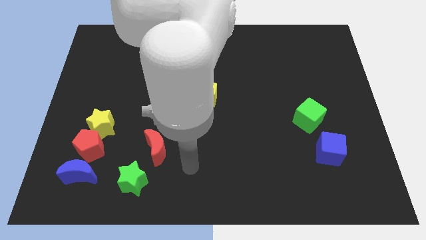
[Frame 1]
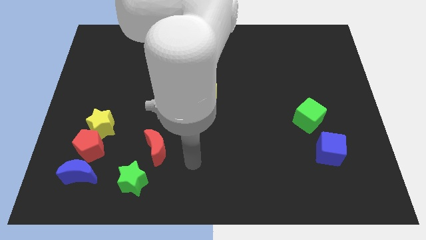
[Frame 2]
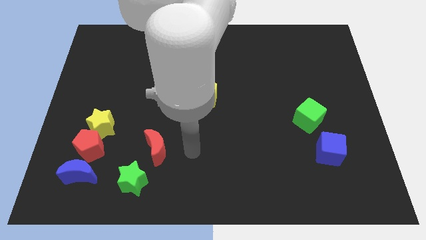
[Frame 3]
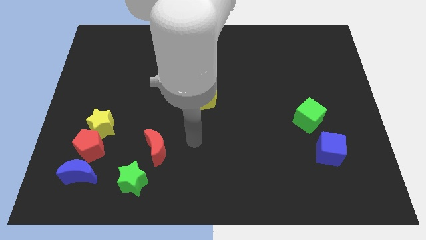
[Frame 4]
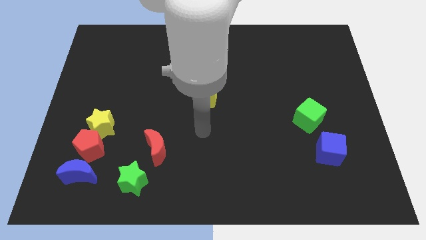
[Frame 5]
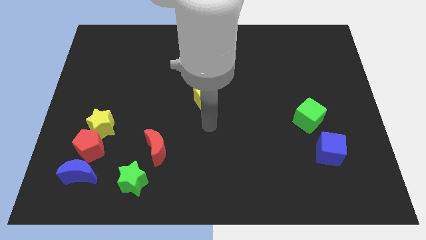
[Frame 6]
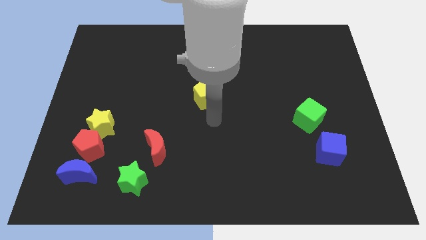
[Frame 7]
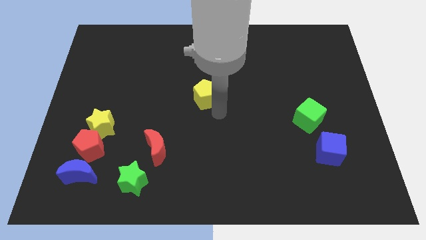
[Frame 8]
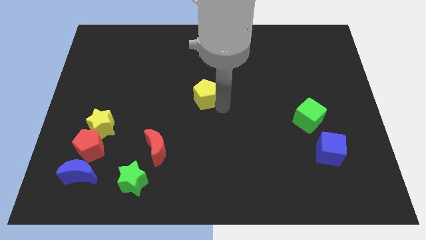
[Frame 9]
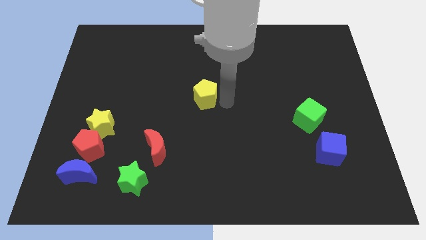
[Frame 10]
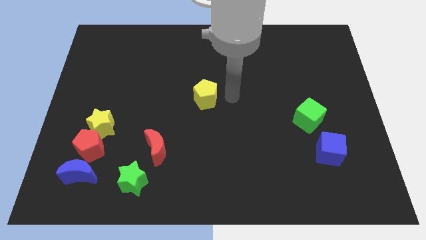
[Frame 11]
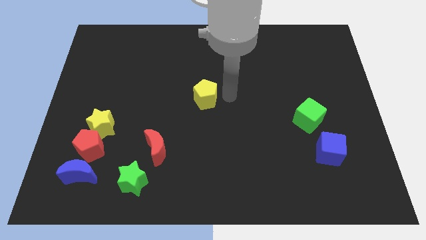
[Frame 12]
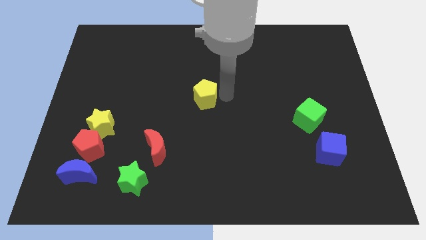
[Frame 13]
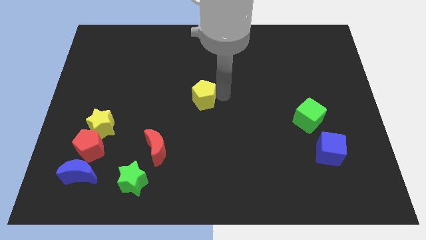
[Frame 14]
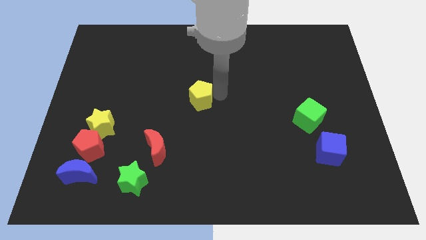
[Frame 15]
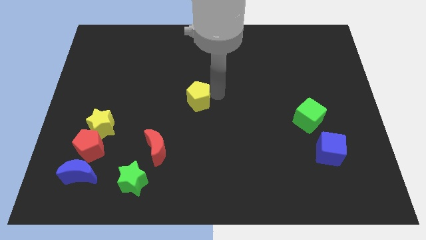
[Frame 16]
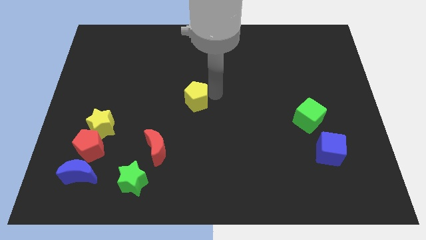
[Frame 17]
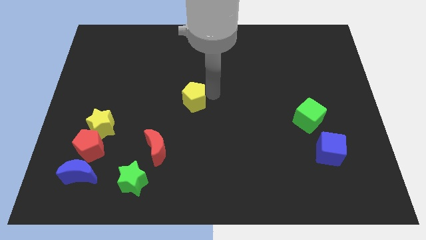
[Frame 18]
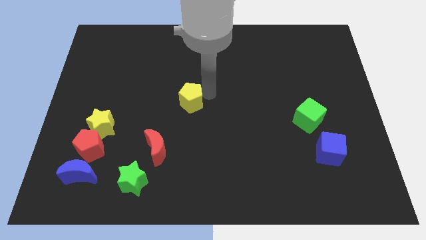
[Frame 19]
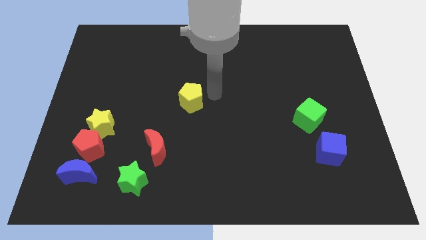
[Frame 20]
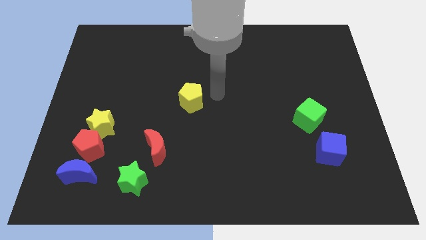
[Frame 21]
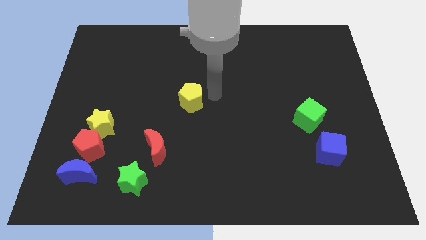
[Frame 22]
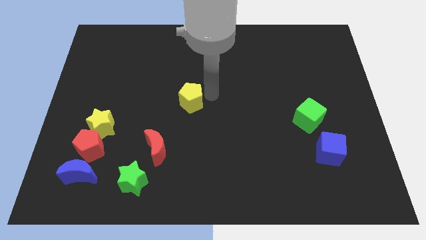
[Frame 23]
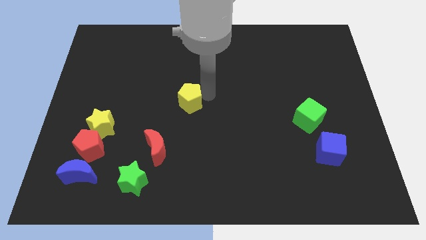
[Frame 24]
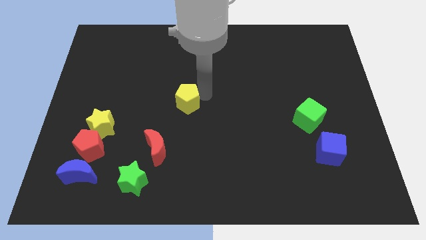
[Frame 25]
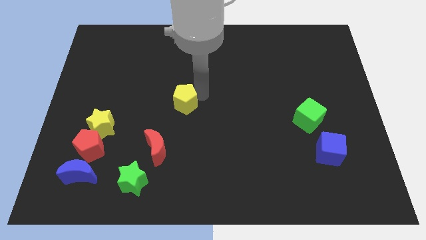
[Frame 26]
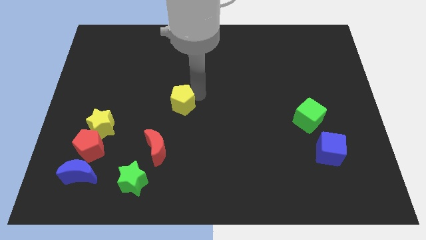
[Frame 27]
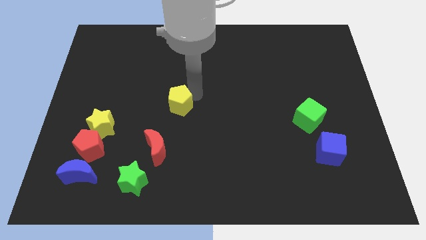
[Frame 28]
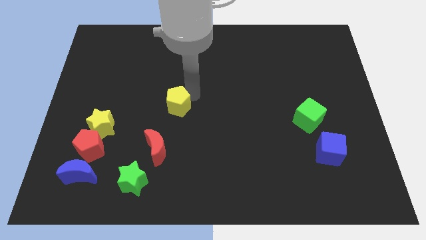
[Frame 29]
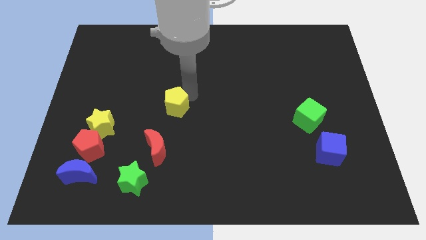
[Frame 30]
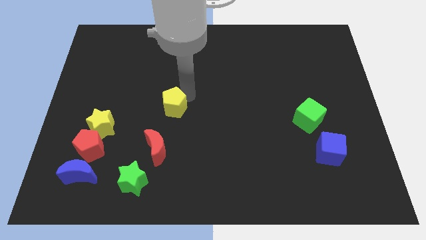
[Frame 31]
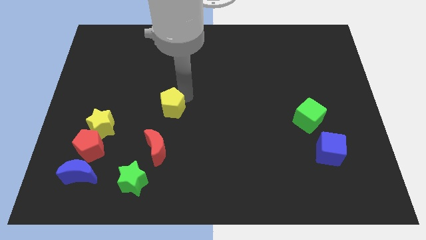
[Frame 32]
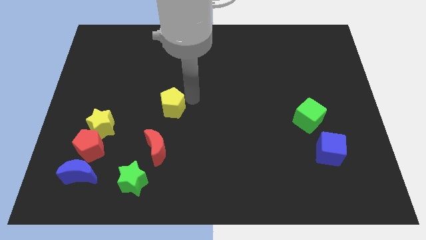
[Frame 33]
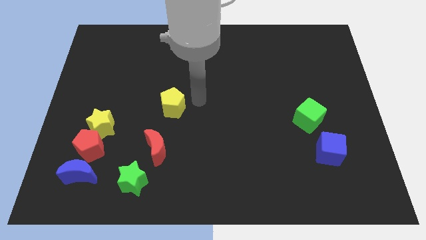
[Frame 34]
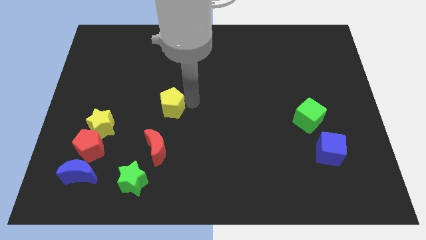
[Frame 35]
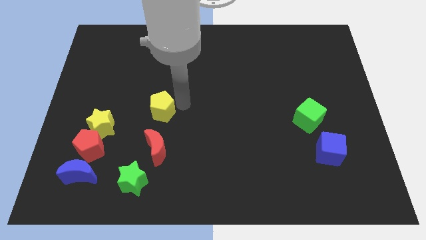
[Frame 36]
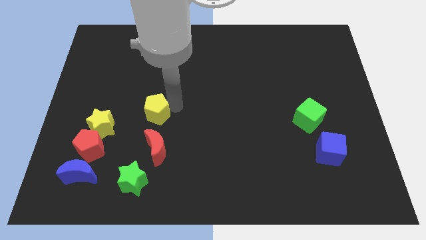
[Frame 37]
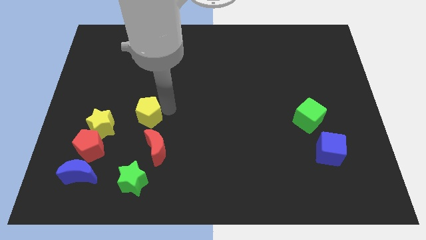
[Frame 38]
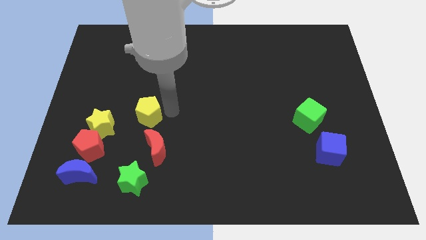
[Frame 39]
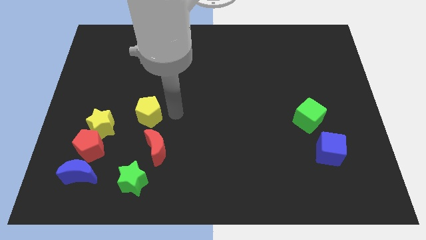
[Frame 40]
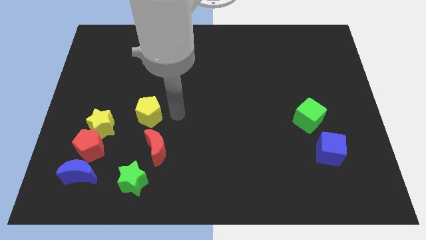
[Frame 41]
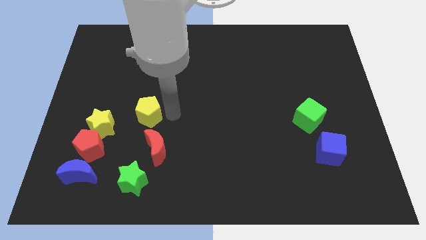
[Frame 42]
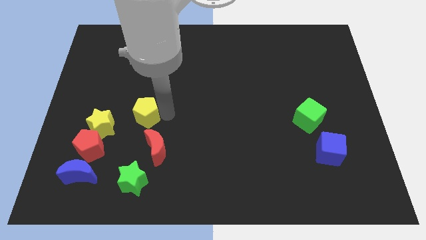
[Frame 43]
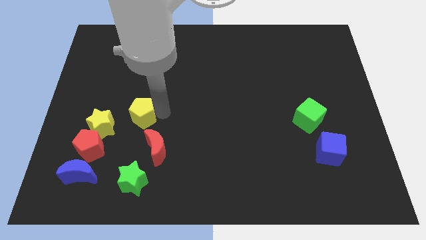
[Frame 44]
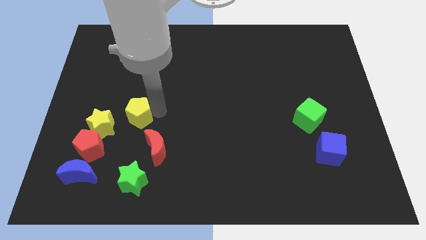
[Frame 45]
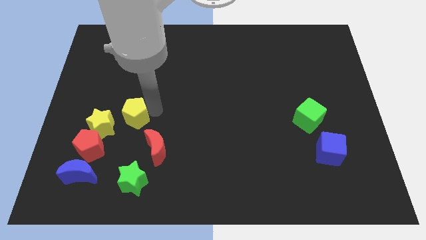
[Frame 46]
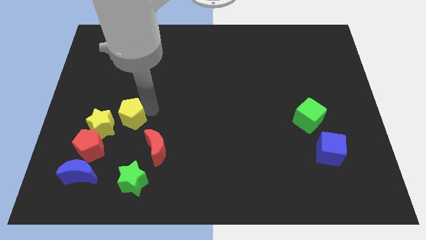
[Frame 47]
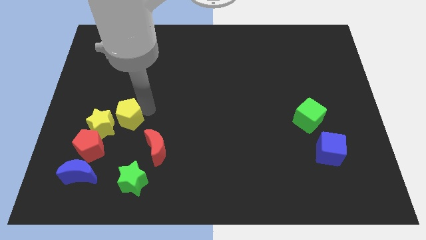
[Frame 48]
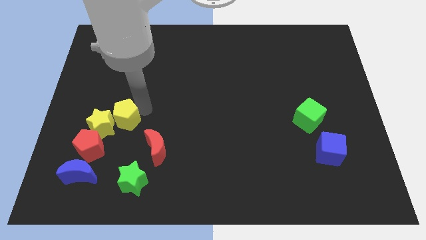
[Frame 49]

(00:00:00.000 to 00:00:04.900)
slide the yellow pentagon to the yellow star

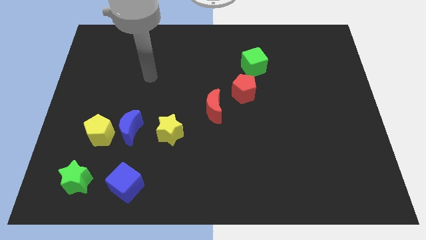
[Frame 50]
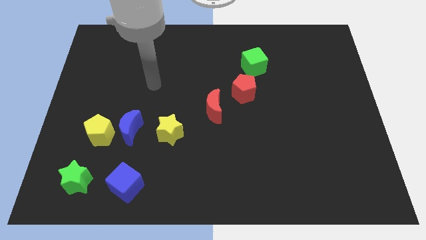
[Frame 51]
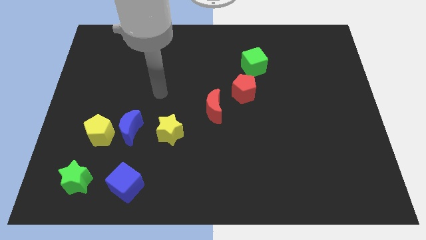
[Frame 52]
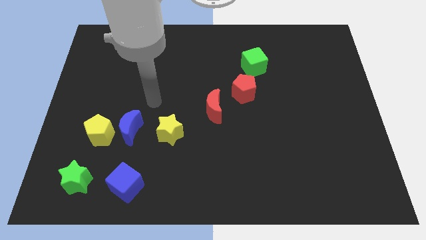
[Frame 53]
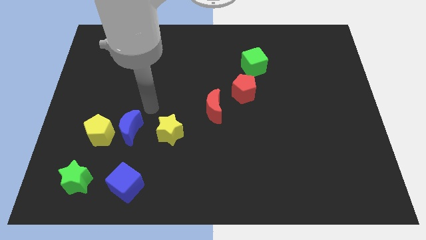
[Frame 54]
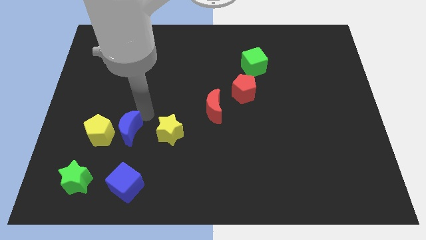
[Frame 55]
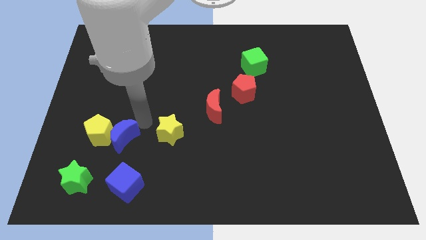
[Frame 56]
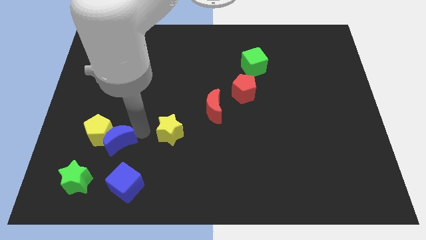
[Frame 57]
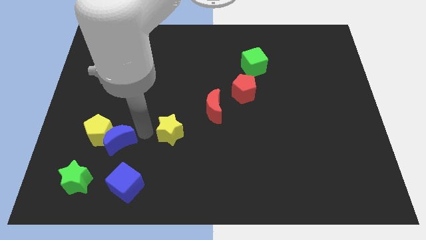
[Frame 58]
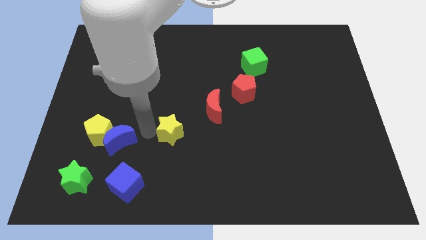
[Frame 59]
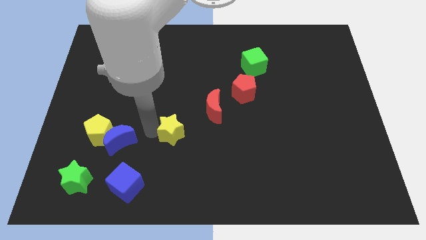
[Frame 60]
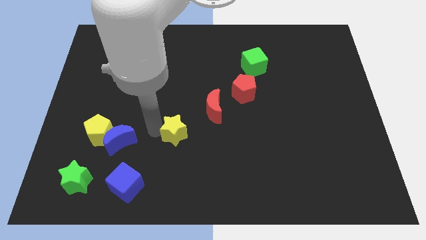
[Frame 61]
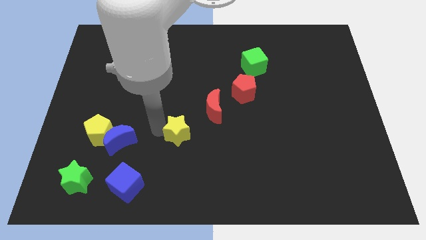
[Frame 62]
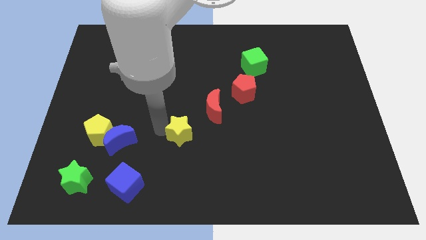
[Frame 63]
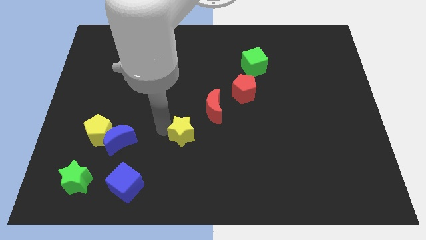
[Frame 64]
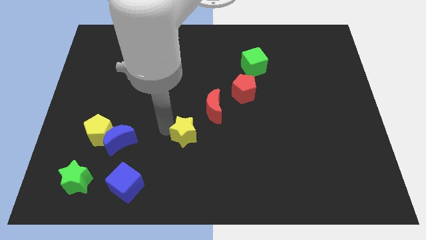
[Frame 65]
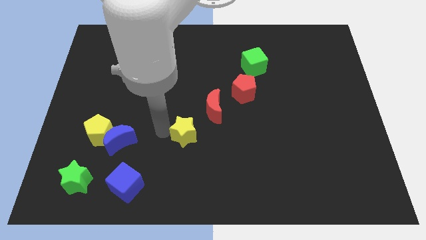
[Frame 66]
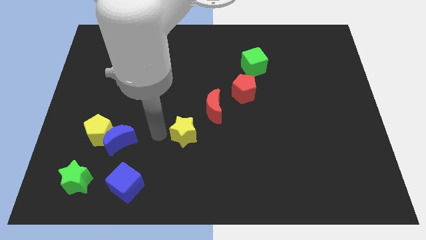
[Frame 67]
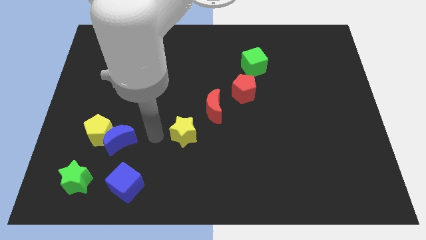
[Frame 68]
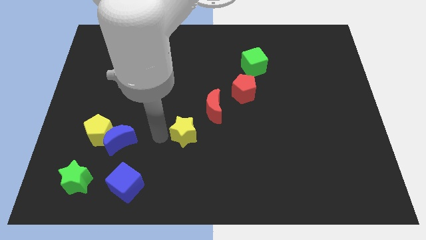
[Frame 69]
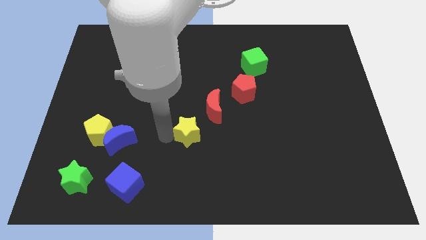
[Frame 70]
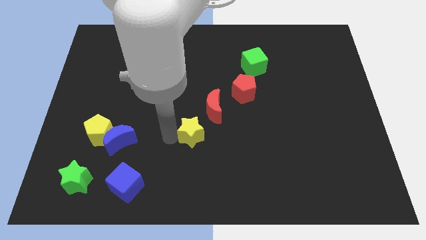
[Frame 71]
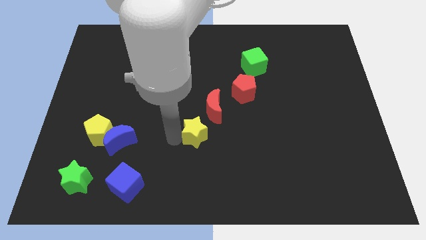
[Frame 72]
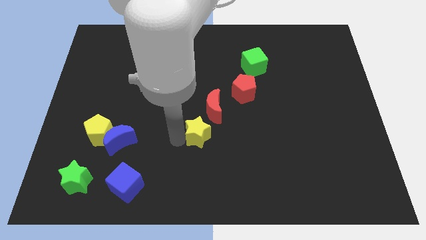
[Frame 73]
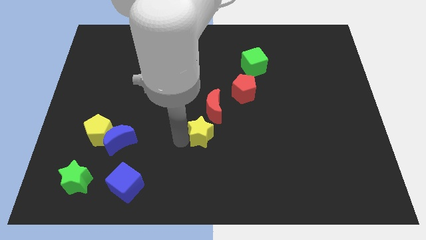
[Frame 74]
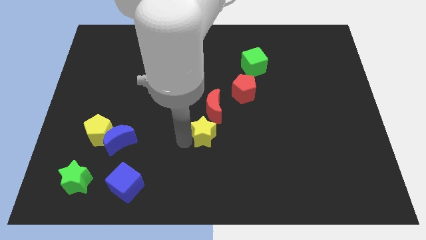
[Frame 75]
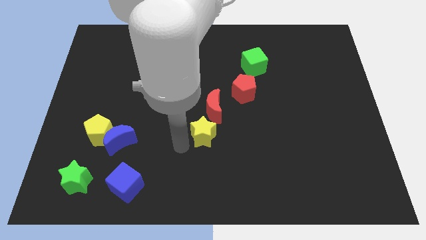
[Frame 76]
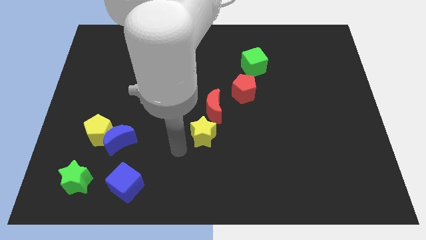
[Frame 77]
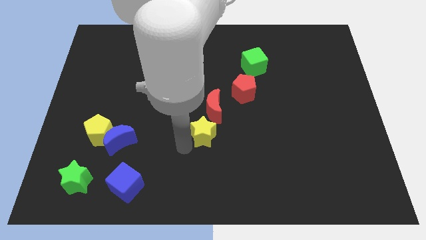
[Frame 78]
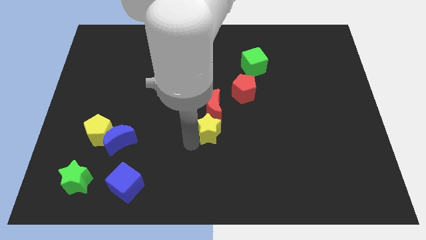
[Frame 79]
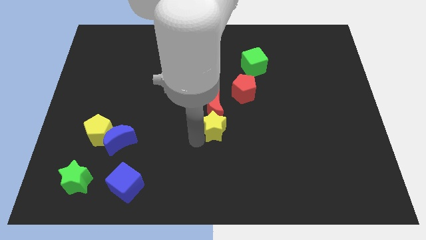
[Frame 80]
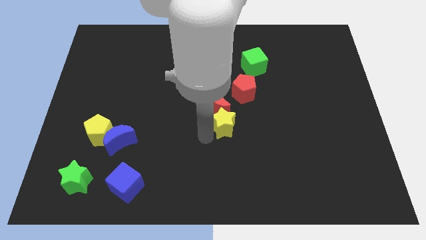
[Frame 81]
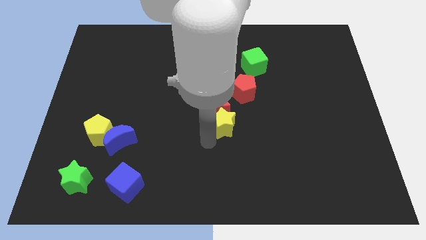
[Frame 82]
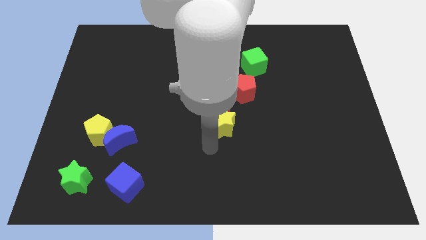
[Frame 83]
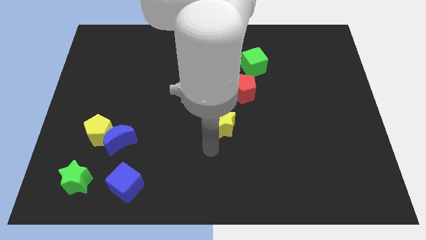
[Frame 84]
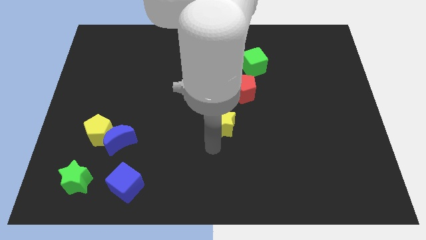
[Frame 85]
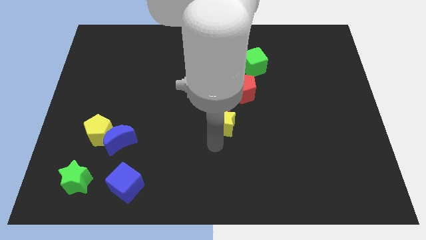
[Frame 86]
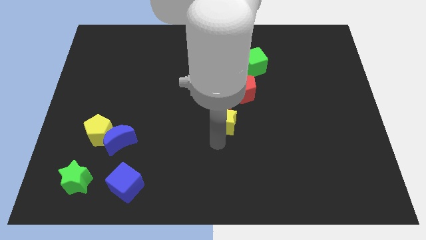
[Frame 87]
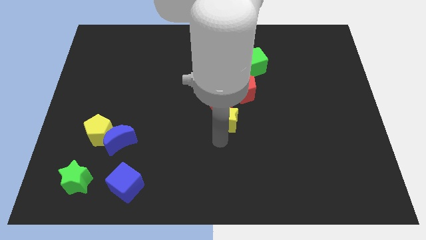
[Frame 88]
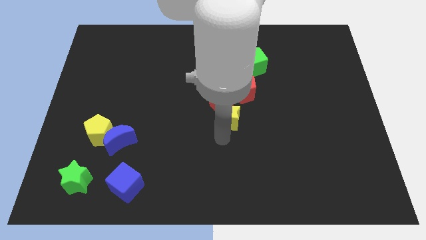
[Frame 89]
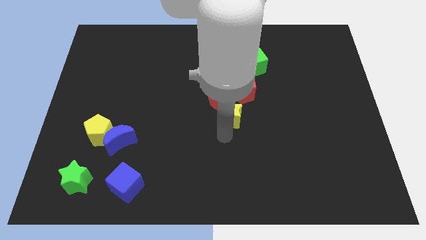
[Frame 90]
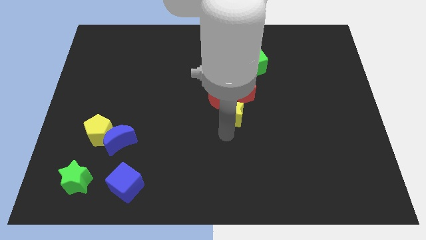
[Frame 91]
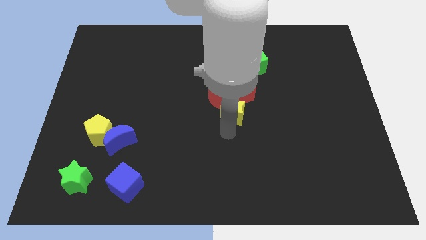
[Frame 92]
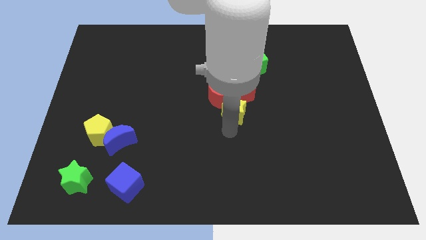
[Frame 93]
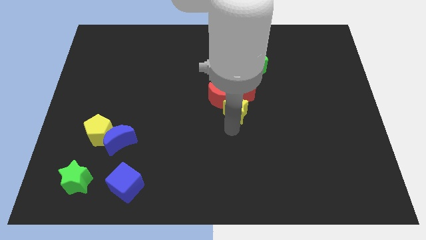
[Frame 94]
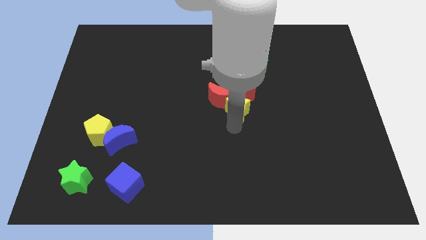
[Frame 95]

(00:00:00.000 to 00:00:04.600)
push the yellow star close to the red pentagon
